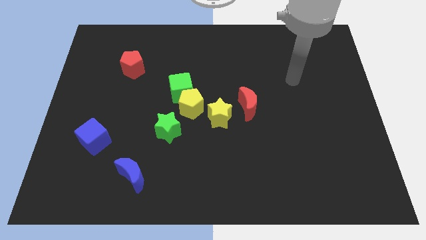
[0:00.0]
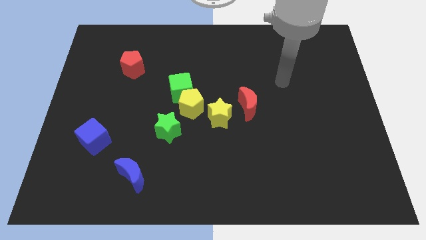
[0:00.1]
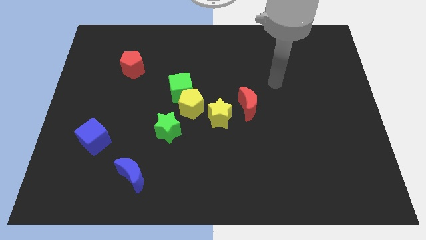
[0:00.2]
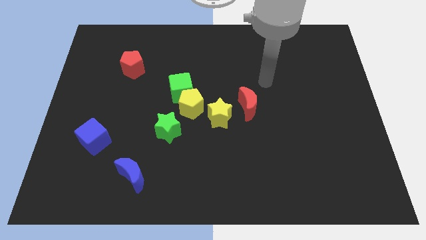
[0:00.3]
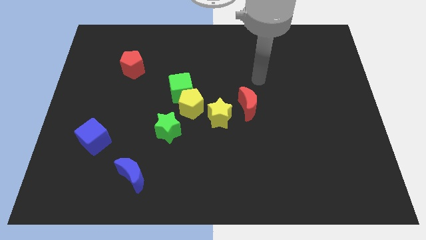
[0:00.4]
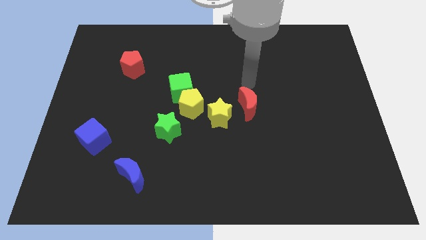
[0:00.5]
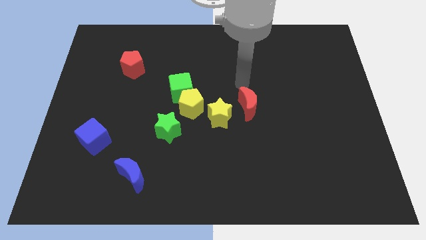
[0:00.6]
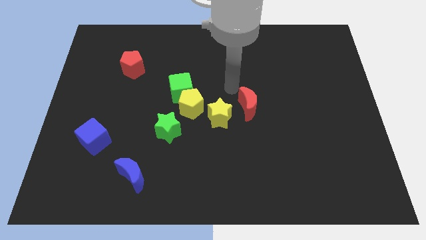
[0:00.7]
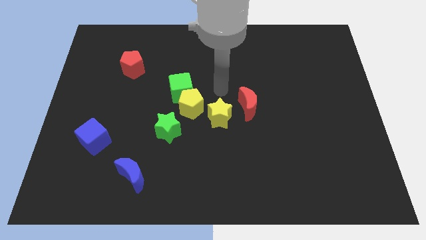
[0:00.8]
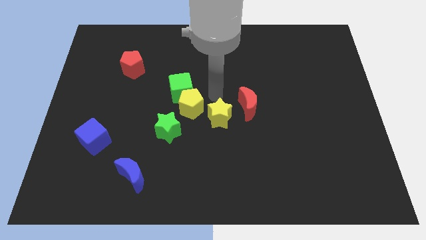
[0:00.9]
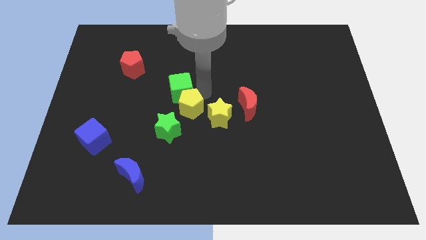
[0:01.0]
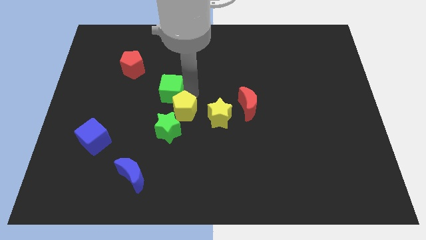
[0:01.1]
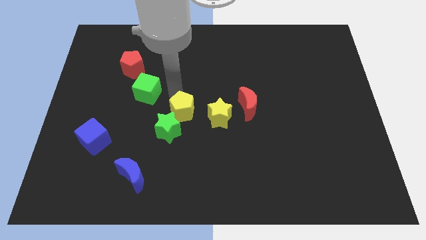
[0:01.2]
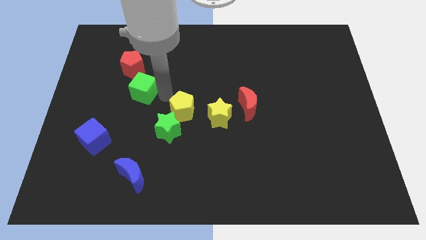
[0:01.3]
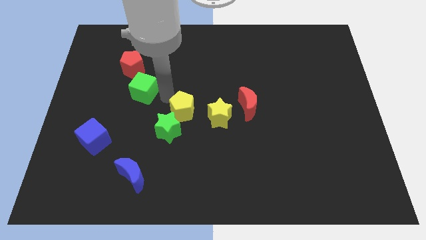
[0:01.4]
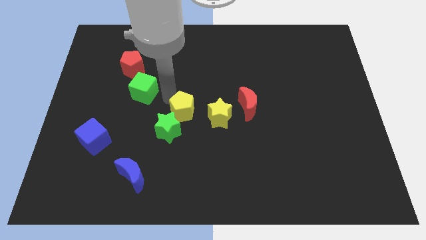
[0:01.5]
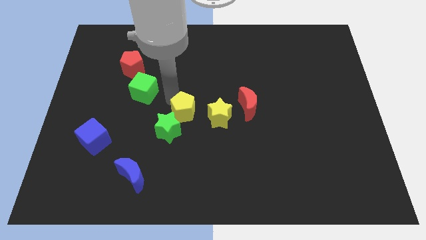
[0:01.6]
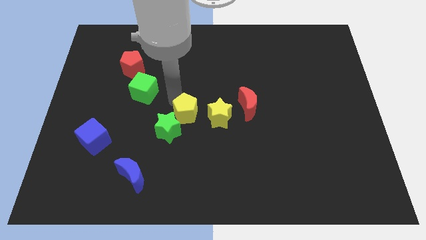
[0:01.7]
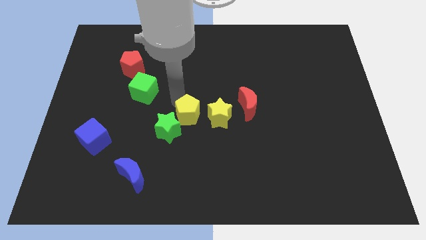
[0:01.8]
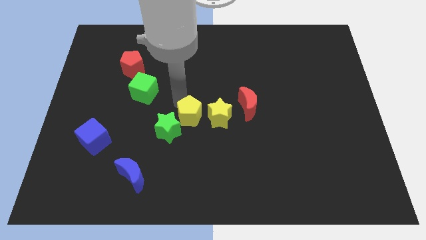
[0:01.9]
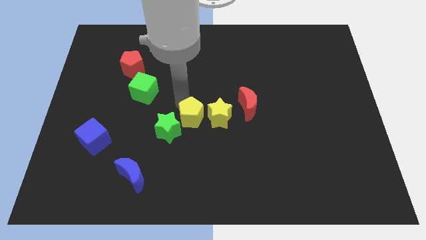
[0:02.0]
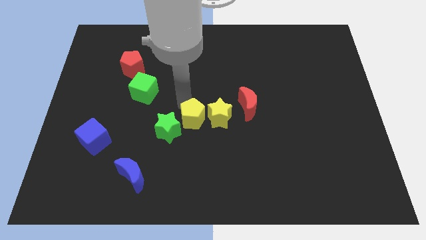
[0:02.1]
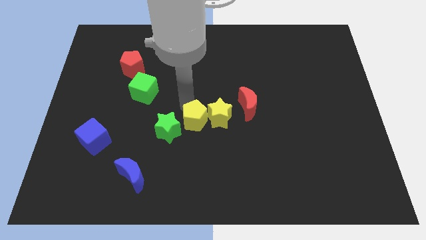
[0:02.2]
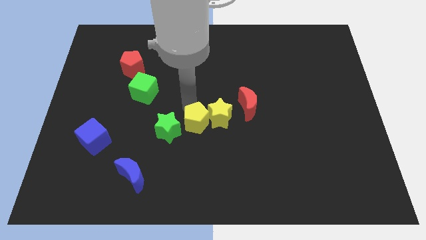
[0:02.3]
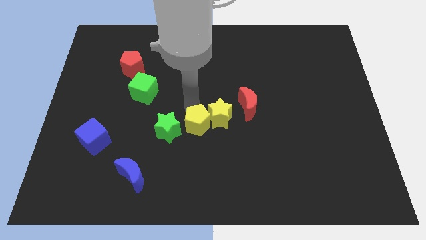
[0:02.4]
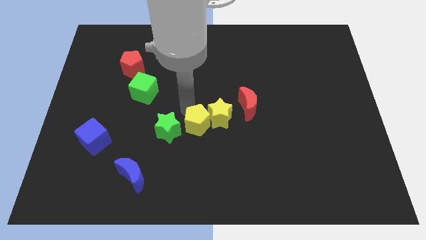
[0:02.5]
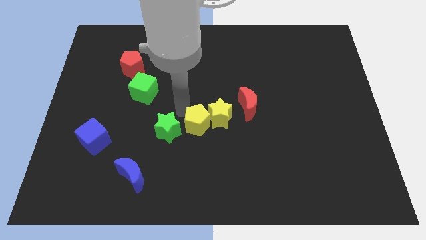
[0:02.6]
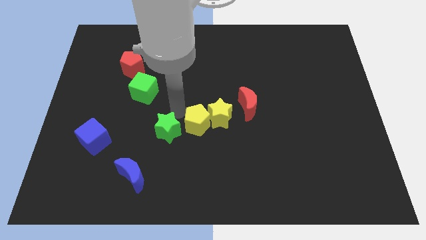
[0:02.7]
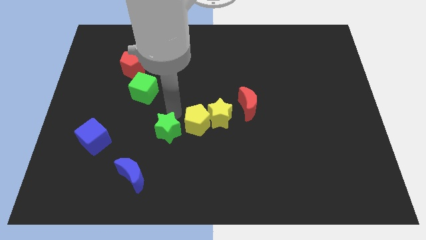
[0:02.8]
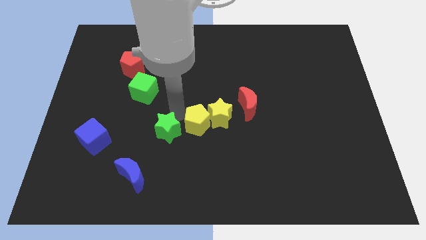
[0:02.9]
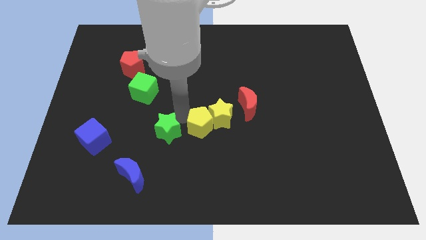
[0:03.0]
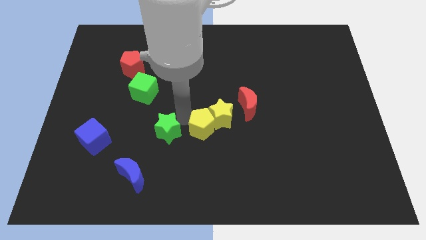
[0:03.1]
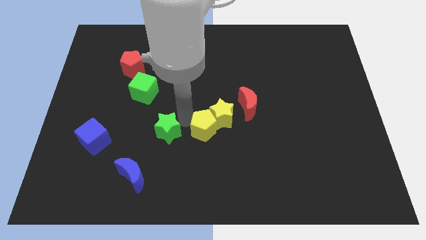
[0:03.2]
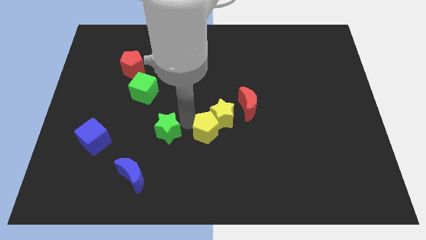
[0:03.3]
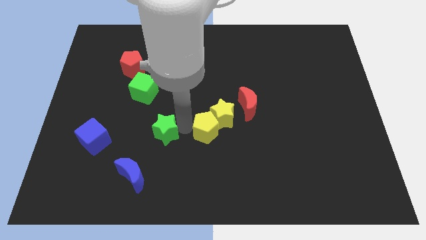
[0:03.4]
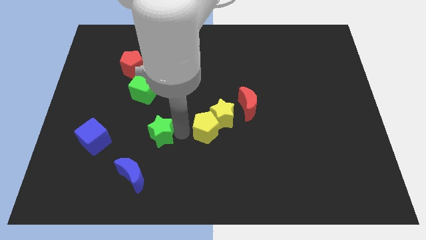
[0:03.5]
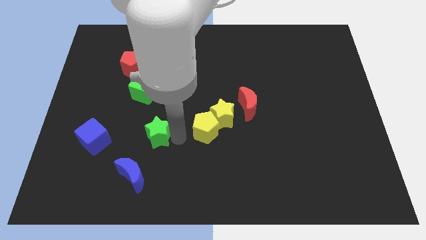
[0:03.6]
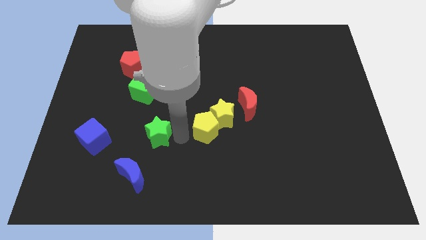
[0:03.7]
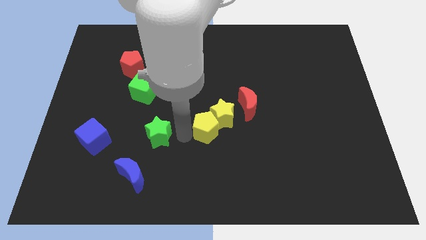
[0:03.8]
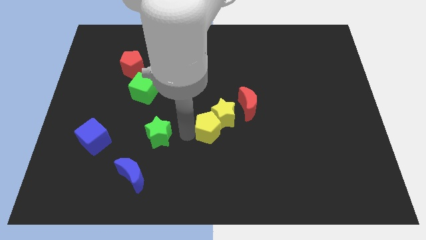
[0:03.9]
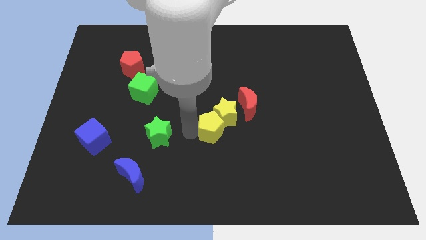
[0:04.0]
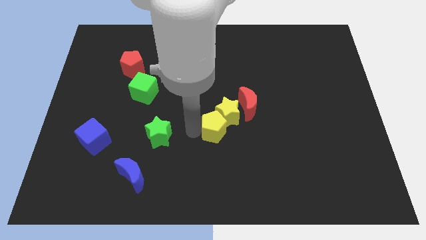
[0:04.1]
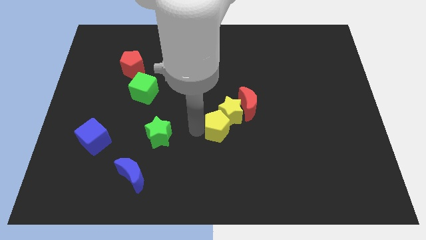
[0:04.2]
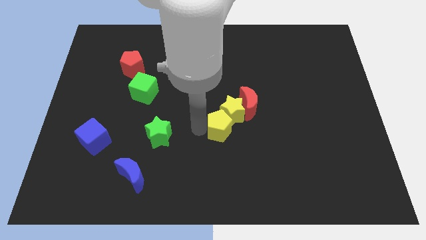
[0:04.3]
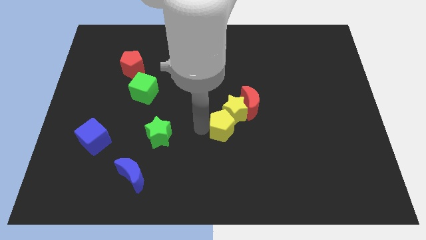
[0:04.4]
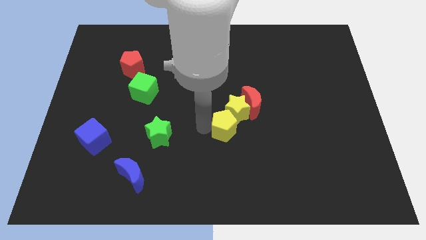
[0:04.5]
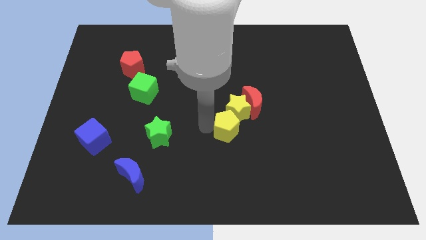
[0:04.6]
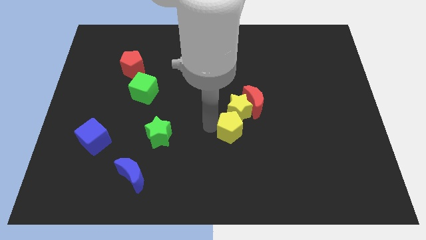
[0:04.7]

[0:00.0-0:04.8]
move the yellow pentagon slightly to the right

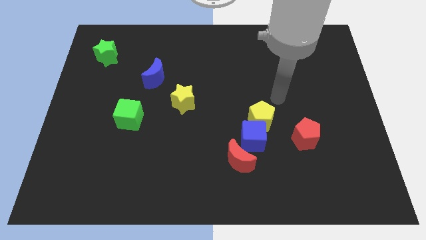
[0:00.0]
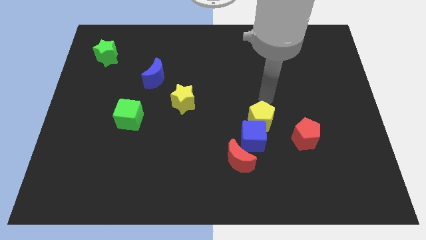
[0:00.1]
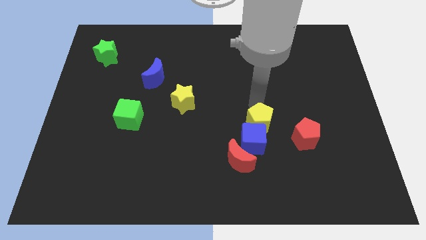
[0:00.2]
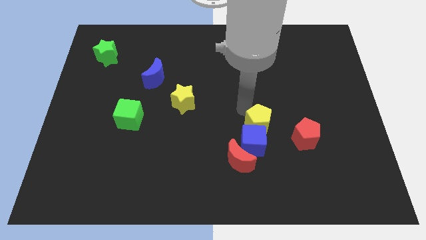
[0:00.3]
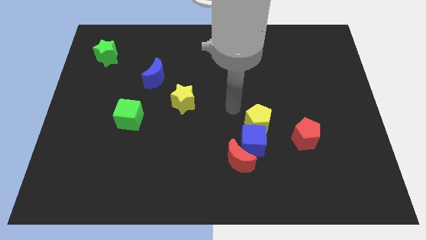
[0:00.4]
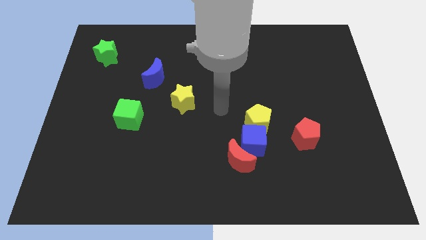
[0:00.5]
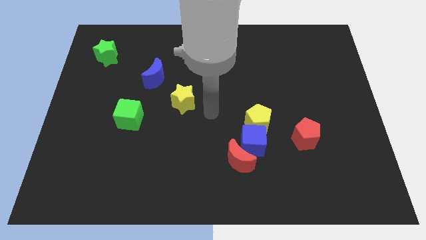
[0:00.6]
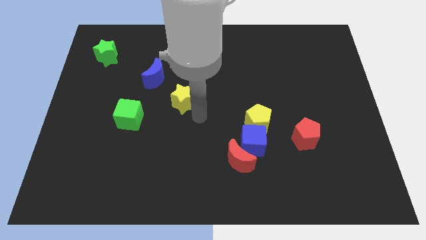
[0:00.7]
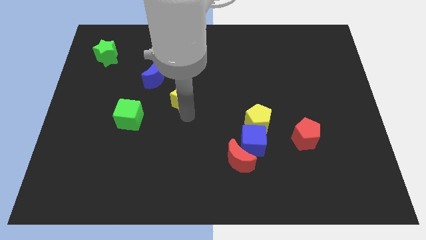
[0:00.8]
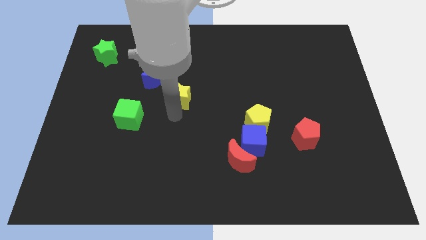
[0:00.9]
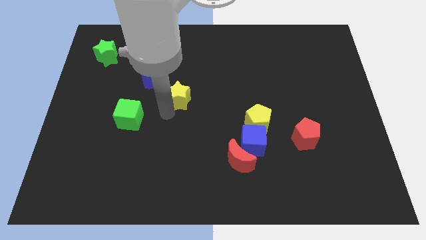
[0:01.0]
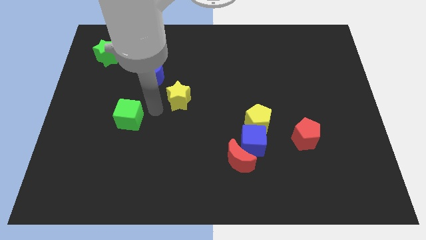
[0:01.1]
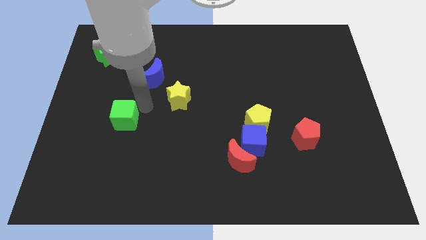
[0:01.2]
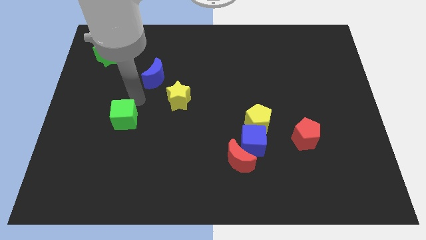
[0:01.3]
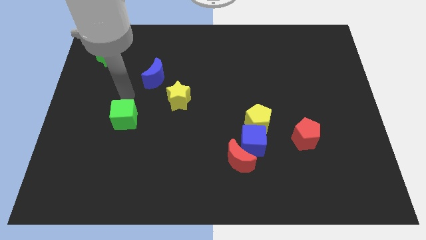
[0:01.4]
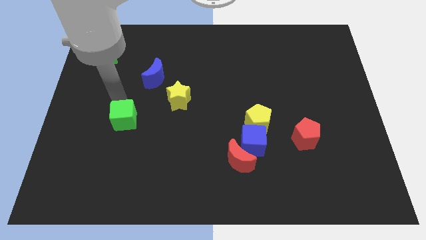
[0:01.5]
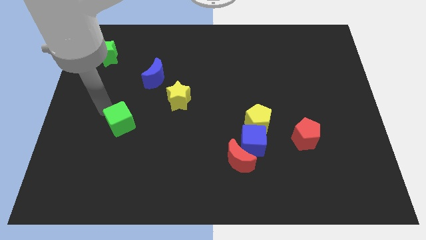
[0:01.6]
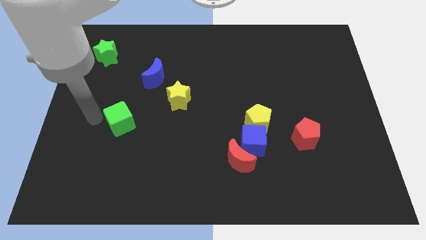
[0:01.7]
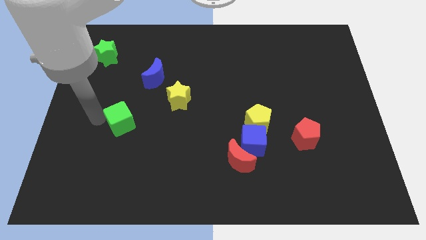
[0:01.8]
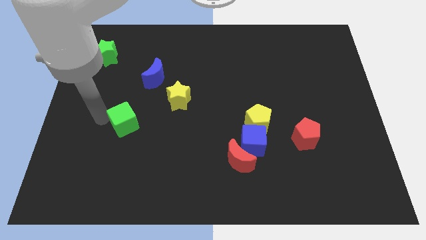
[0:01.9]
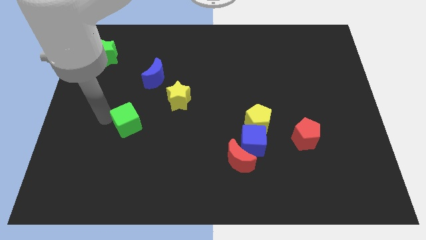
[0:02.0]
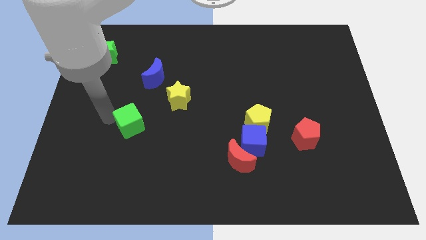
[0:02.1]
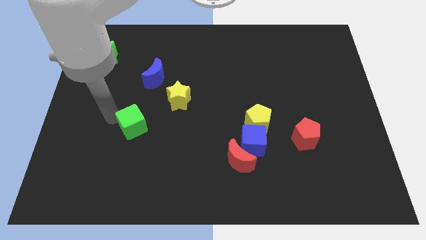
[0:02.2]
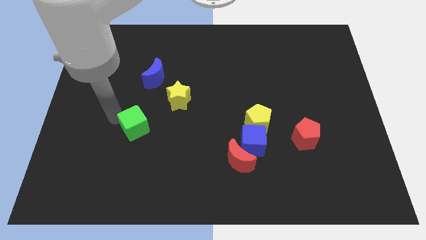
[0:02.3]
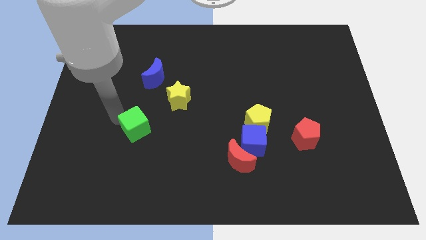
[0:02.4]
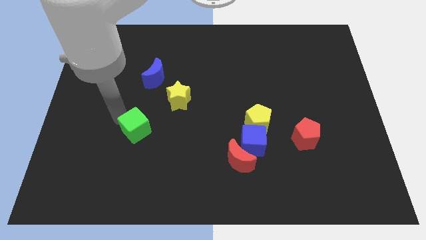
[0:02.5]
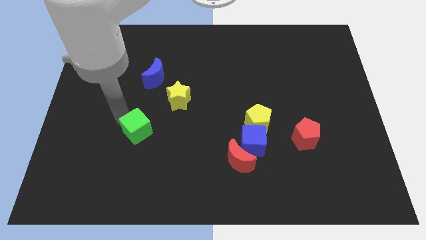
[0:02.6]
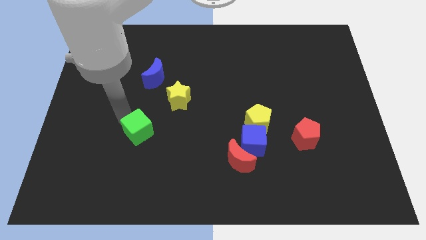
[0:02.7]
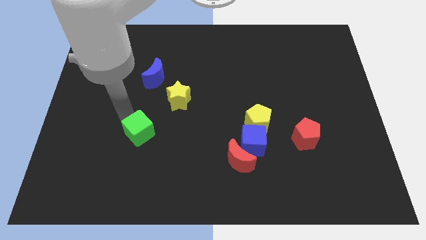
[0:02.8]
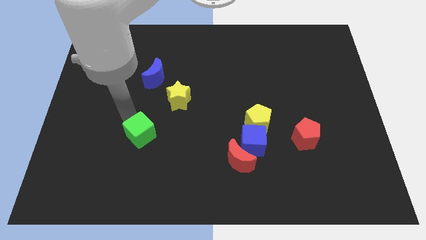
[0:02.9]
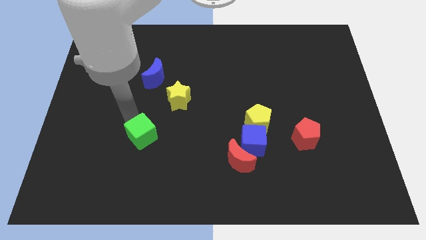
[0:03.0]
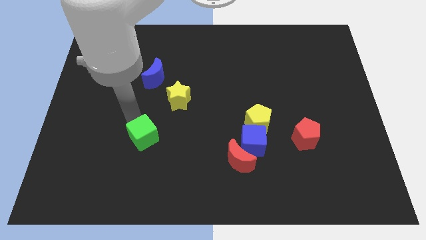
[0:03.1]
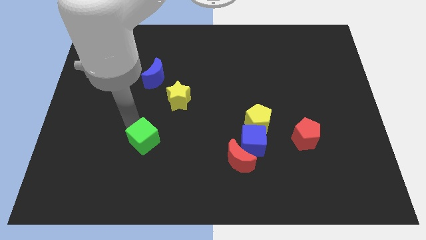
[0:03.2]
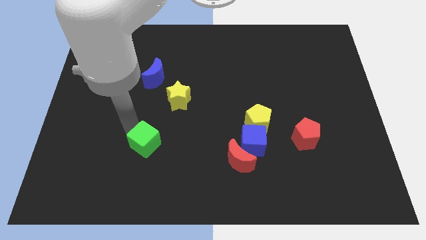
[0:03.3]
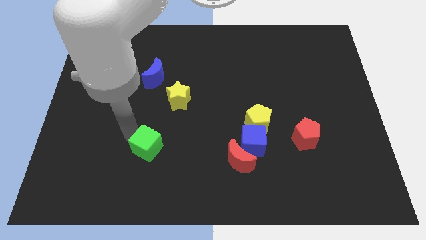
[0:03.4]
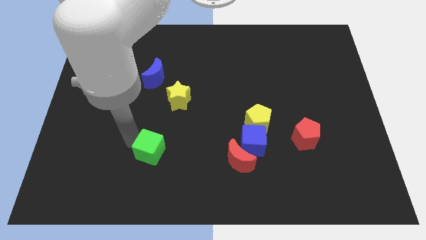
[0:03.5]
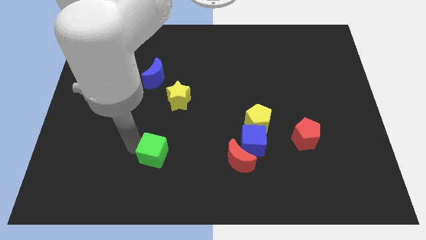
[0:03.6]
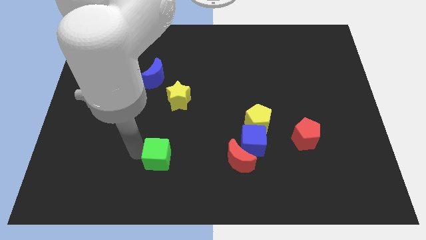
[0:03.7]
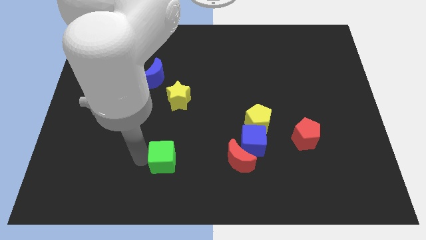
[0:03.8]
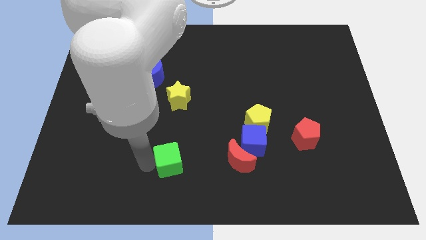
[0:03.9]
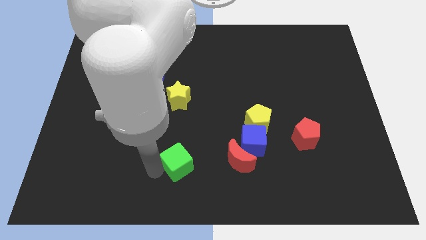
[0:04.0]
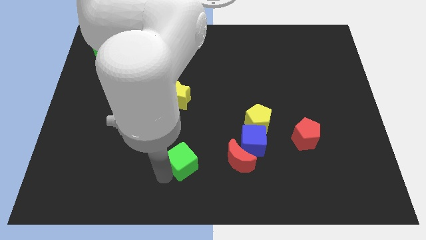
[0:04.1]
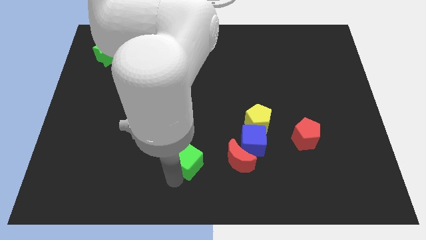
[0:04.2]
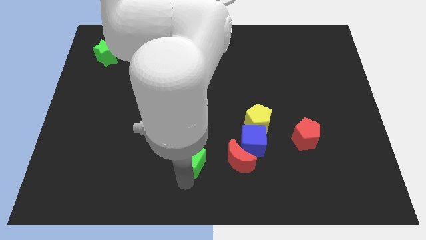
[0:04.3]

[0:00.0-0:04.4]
move the green cube to the right a bit
